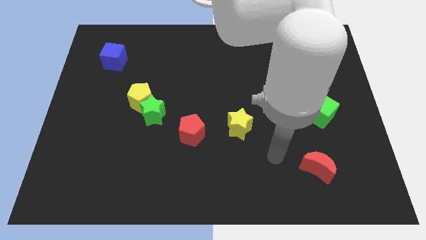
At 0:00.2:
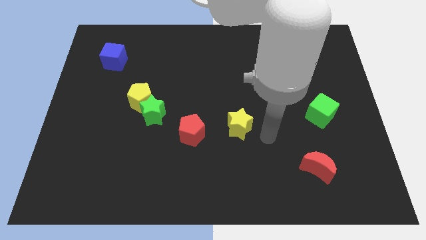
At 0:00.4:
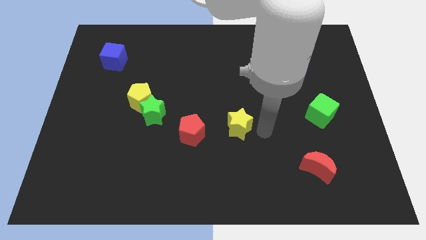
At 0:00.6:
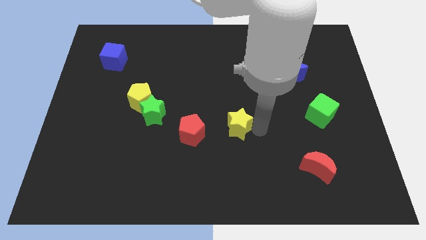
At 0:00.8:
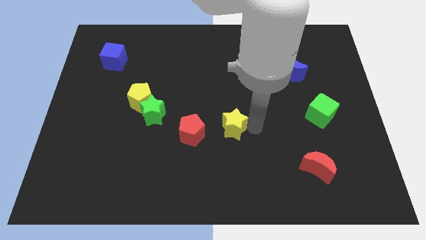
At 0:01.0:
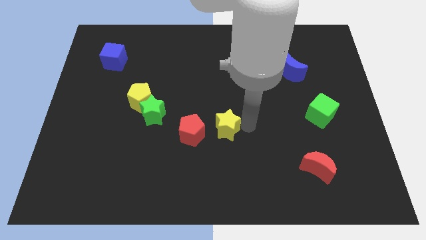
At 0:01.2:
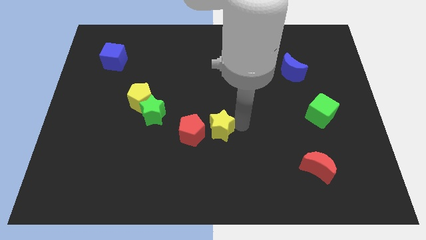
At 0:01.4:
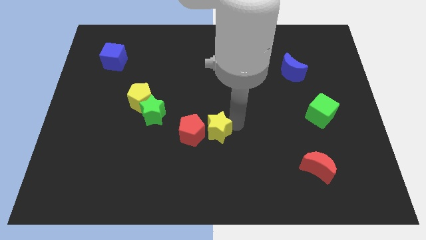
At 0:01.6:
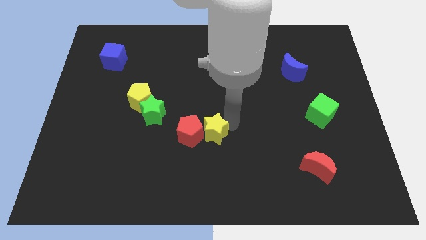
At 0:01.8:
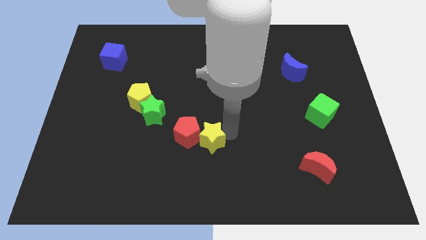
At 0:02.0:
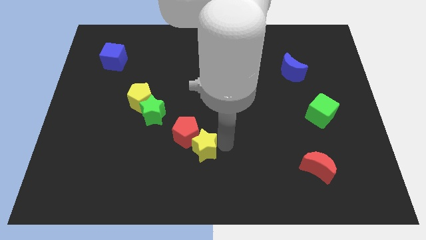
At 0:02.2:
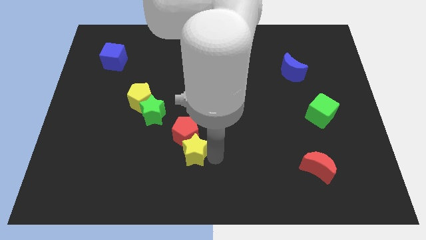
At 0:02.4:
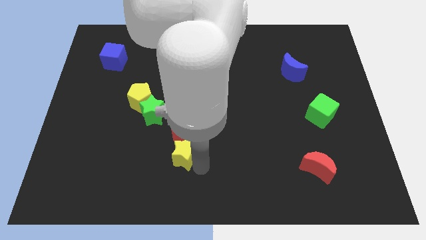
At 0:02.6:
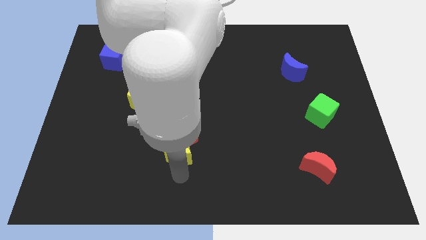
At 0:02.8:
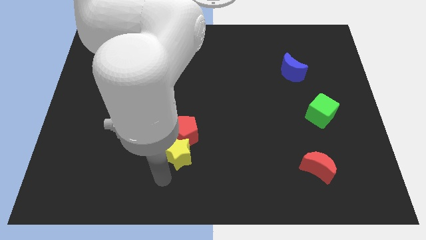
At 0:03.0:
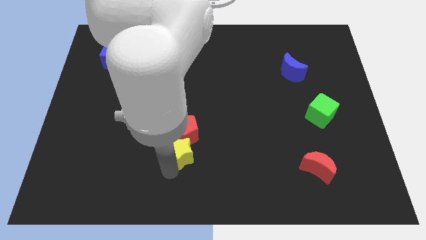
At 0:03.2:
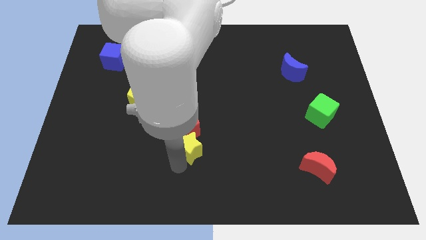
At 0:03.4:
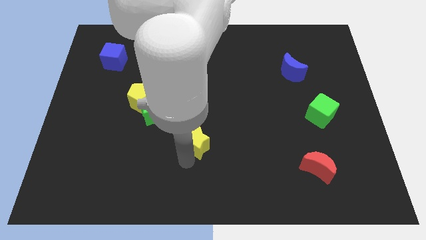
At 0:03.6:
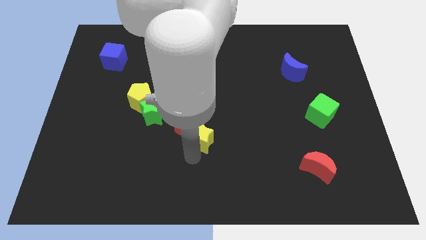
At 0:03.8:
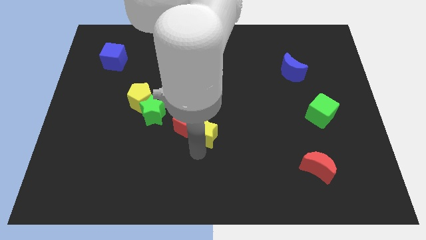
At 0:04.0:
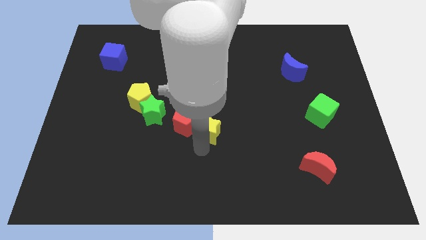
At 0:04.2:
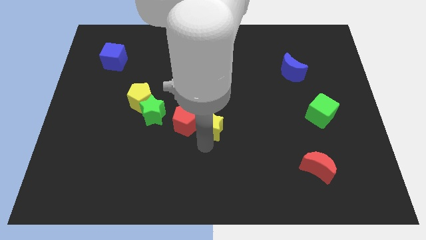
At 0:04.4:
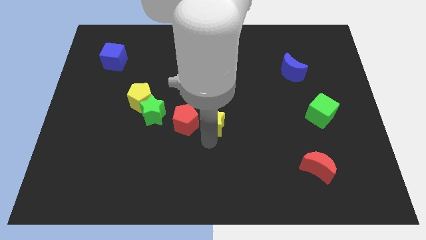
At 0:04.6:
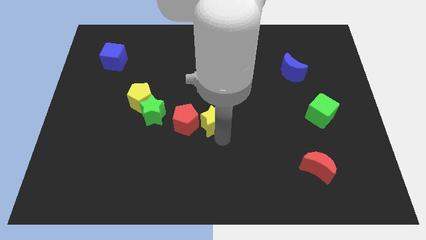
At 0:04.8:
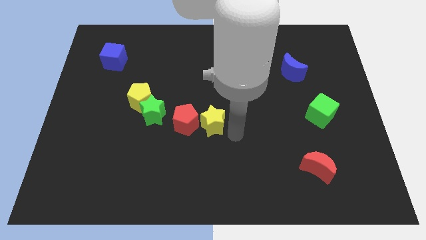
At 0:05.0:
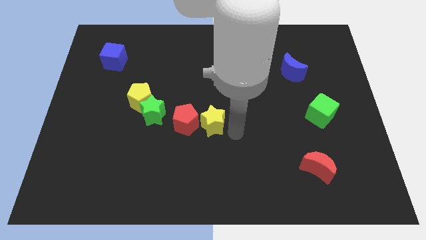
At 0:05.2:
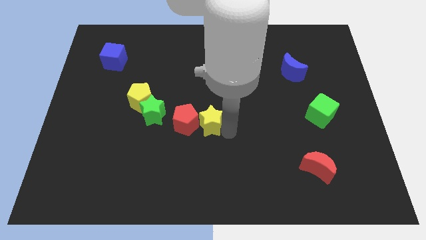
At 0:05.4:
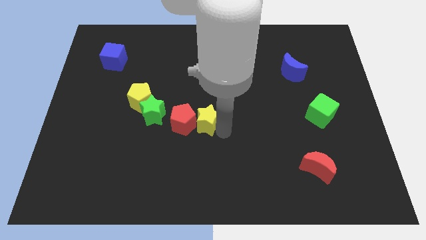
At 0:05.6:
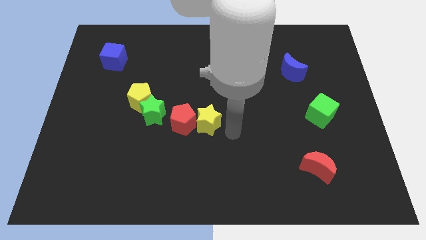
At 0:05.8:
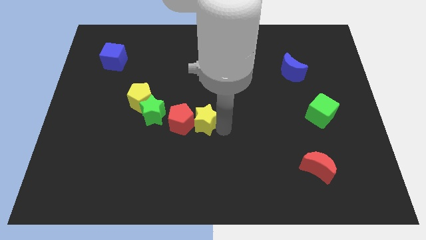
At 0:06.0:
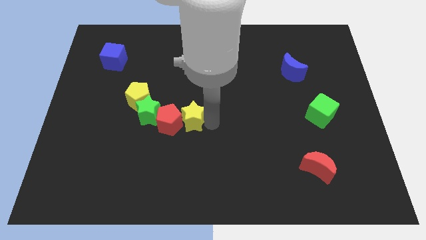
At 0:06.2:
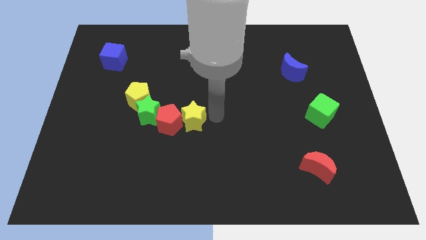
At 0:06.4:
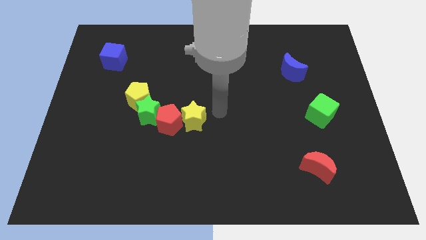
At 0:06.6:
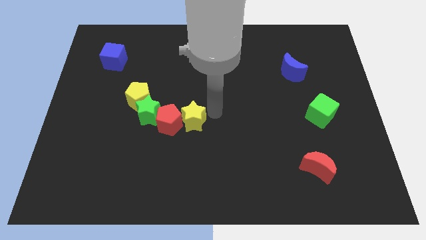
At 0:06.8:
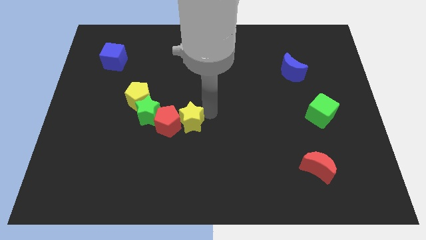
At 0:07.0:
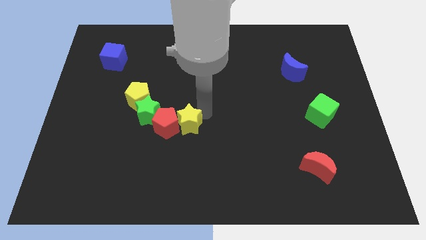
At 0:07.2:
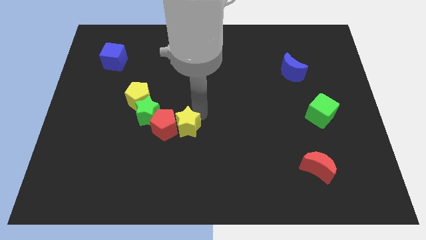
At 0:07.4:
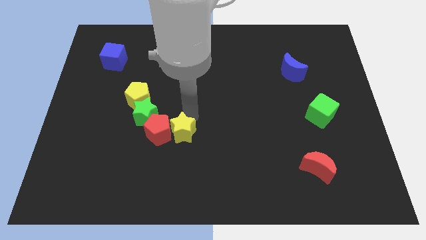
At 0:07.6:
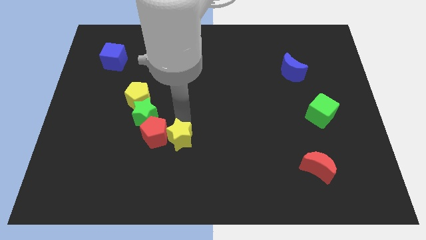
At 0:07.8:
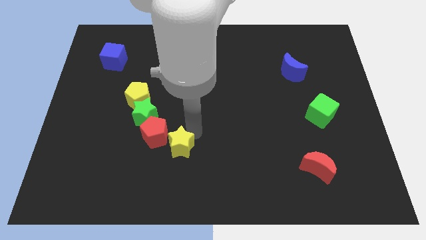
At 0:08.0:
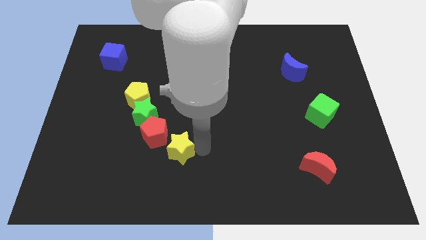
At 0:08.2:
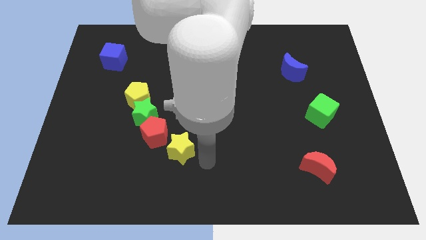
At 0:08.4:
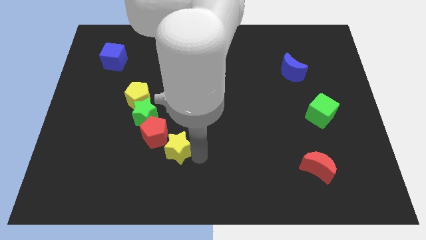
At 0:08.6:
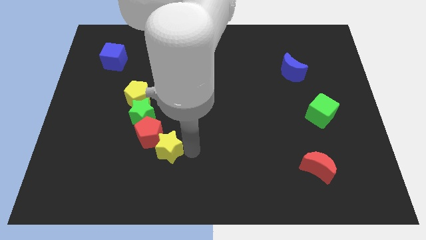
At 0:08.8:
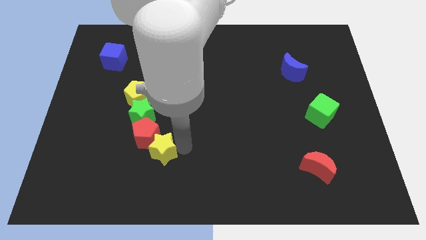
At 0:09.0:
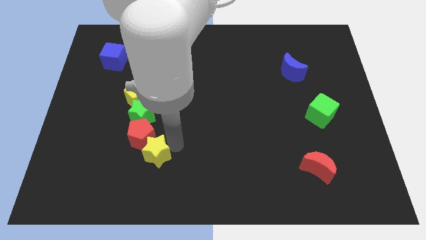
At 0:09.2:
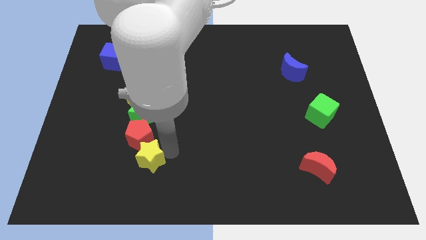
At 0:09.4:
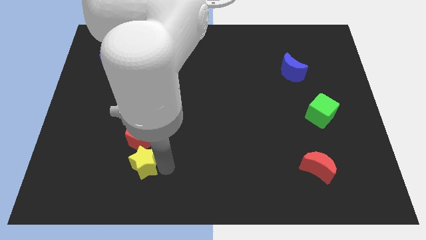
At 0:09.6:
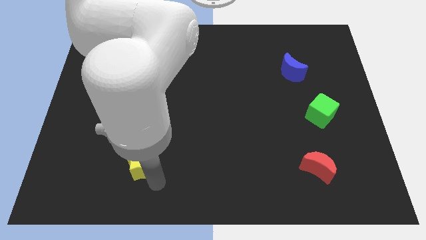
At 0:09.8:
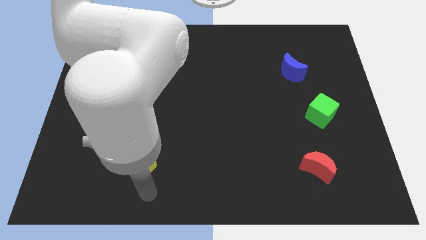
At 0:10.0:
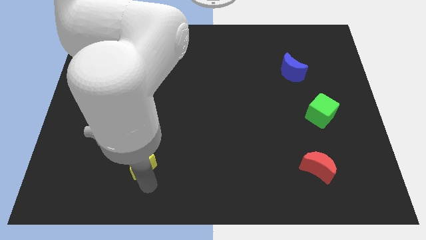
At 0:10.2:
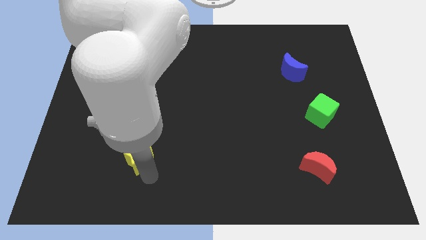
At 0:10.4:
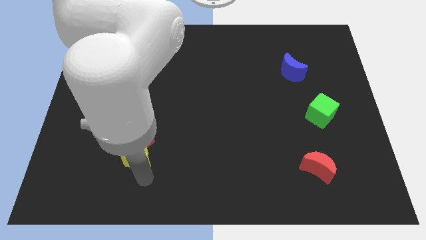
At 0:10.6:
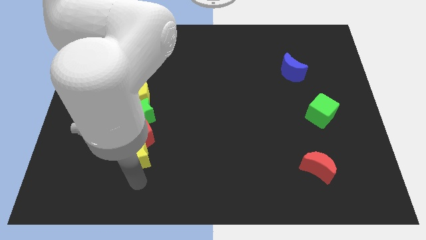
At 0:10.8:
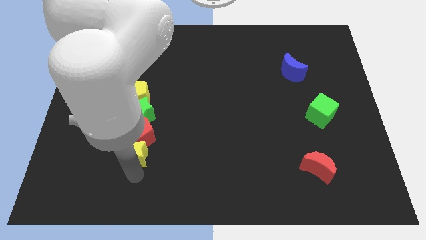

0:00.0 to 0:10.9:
slide the yellow star to the left

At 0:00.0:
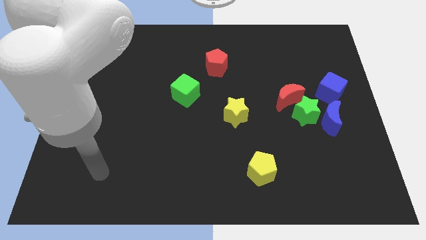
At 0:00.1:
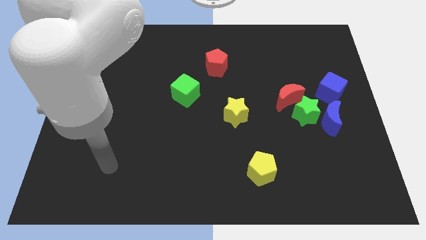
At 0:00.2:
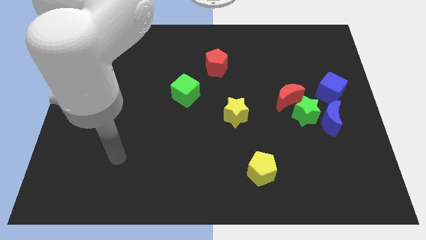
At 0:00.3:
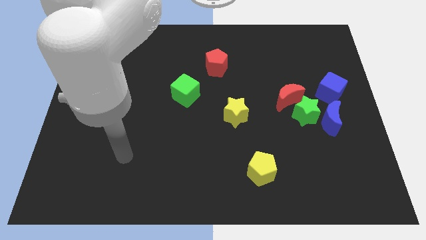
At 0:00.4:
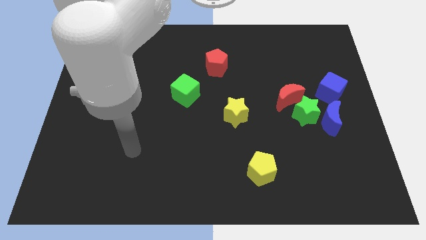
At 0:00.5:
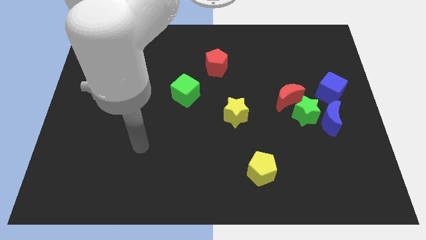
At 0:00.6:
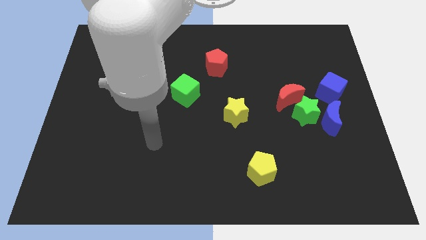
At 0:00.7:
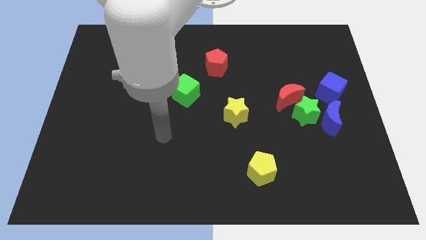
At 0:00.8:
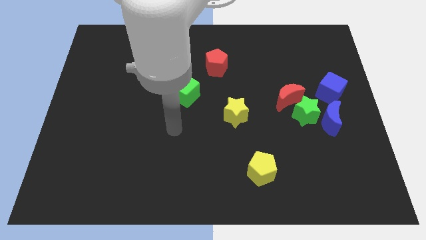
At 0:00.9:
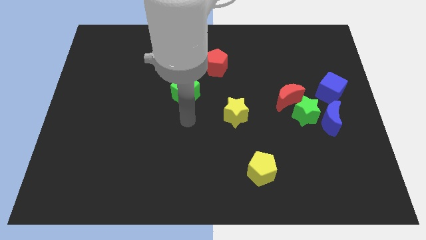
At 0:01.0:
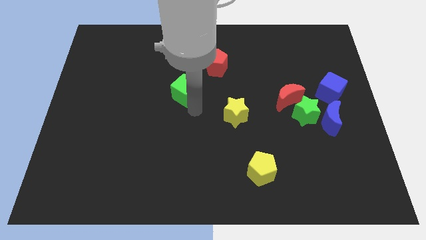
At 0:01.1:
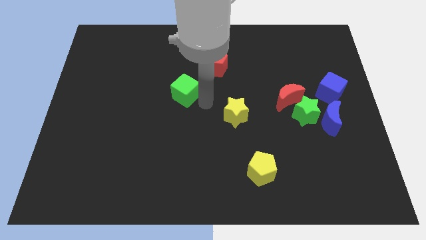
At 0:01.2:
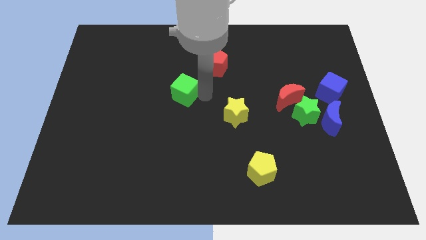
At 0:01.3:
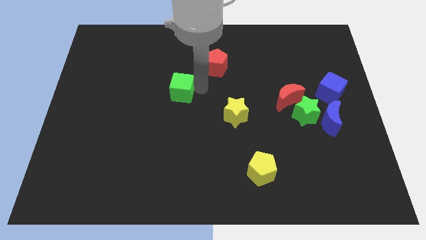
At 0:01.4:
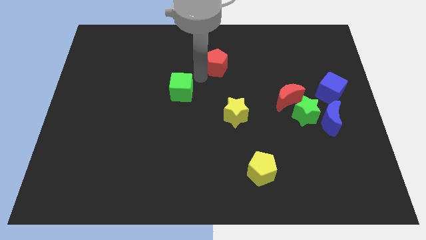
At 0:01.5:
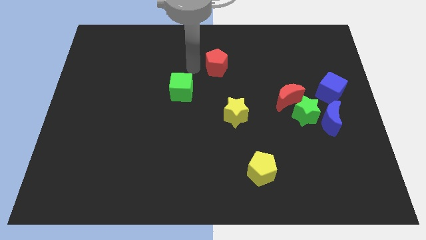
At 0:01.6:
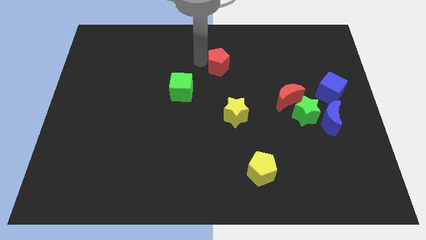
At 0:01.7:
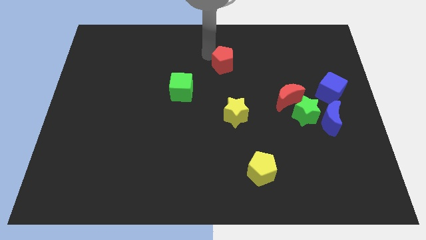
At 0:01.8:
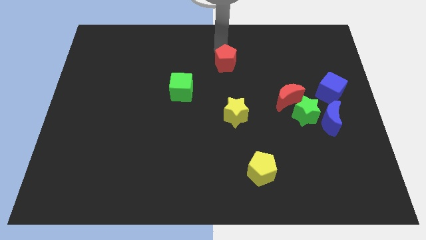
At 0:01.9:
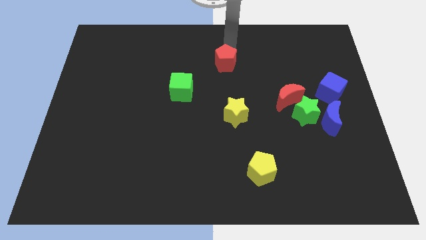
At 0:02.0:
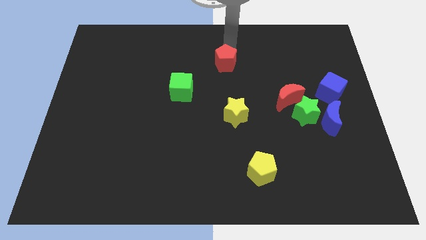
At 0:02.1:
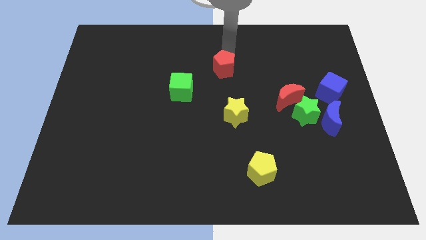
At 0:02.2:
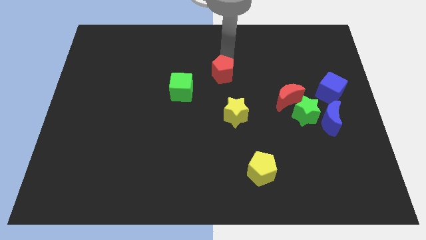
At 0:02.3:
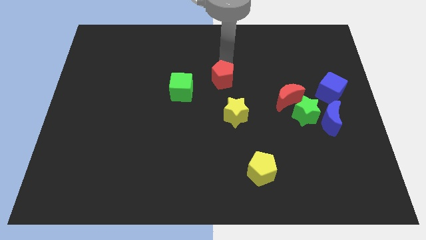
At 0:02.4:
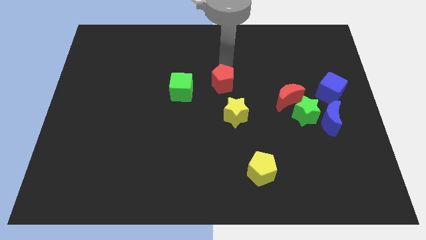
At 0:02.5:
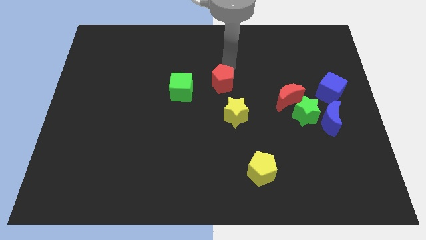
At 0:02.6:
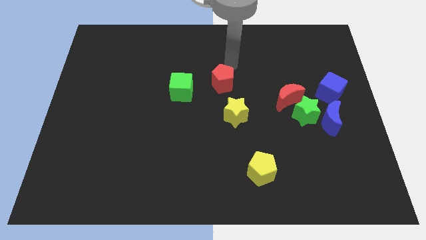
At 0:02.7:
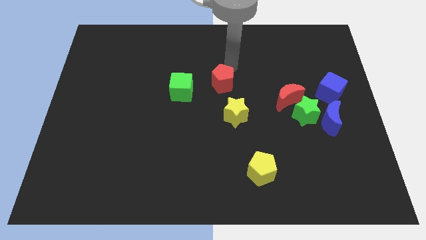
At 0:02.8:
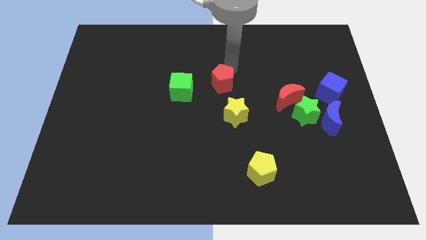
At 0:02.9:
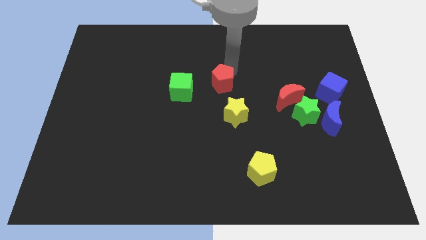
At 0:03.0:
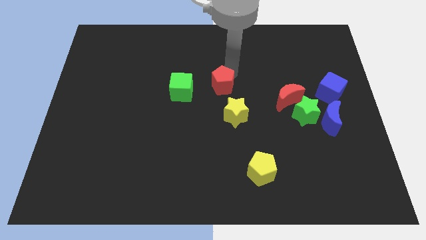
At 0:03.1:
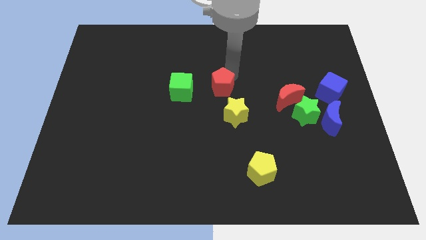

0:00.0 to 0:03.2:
push the red pentagon downwards a bit
